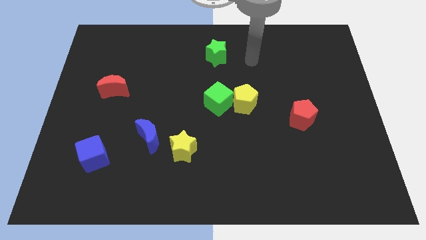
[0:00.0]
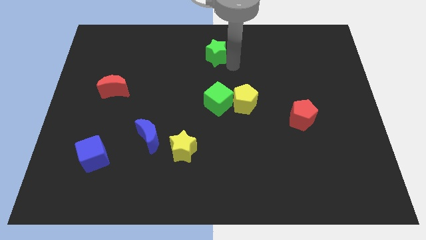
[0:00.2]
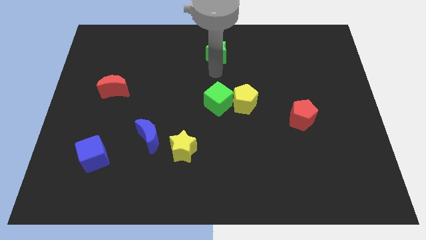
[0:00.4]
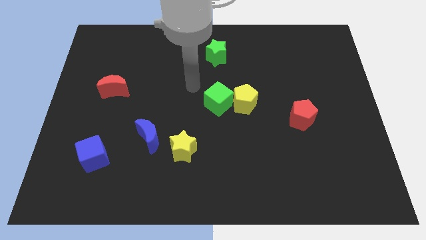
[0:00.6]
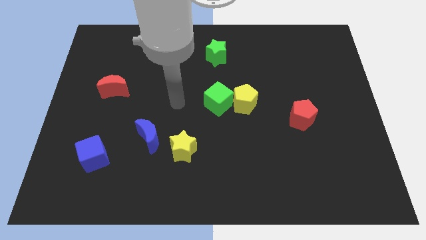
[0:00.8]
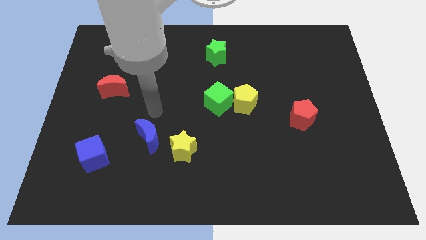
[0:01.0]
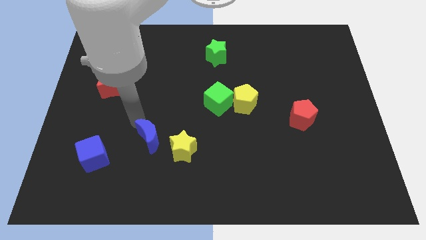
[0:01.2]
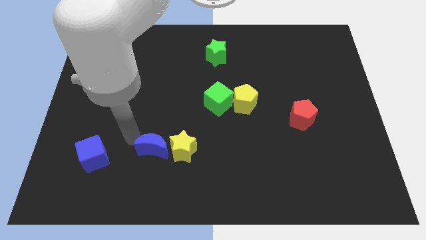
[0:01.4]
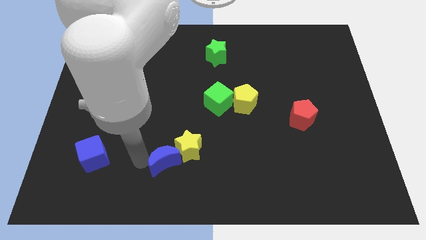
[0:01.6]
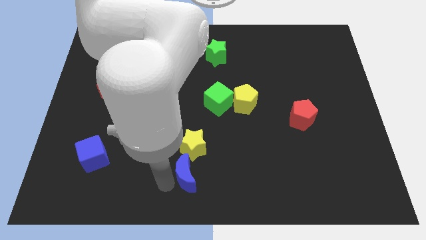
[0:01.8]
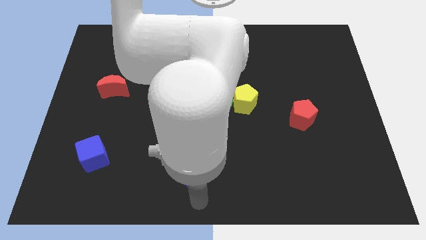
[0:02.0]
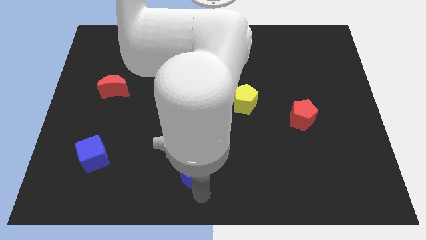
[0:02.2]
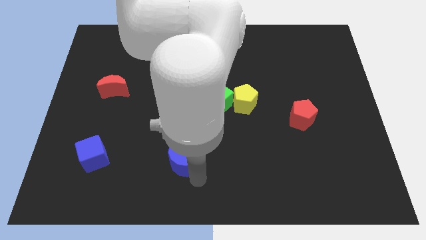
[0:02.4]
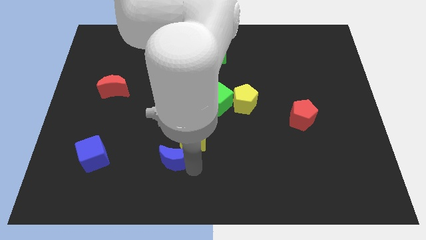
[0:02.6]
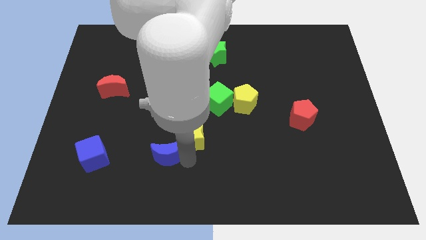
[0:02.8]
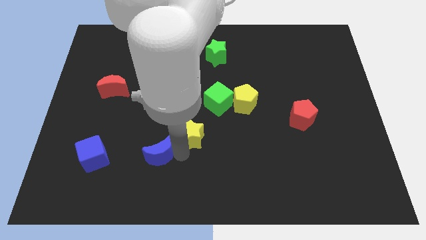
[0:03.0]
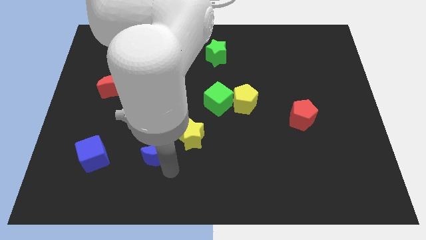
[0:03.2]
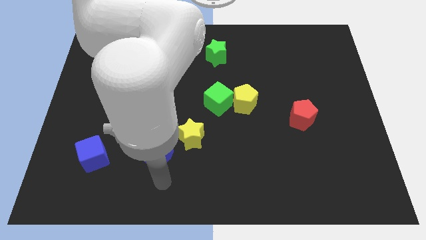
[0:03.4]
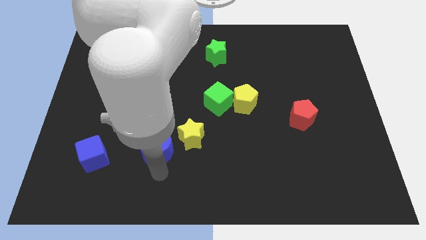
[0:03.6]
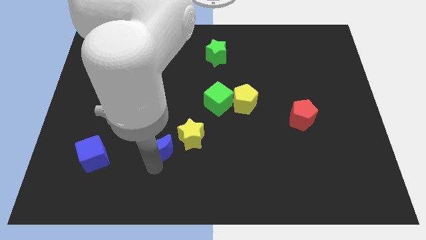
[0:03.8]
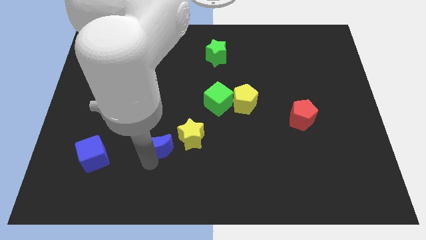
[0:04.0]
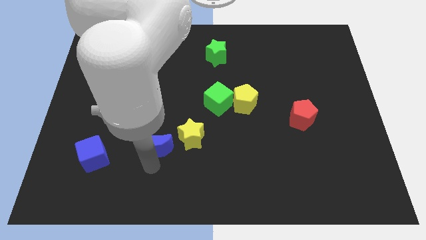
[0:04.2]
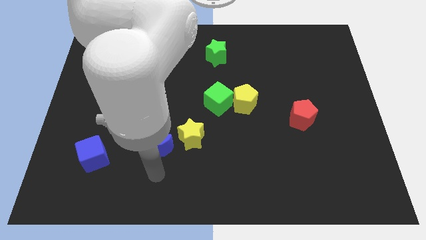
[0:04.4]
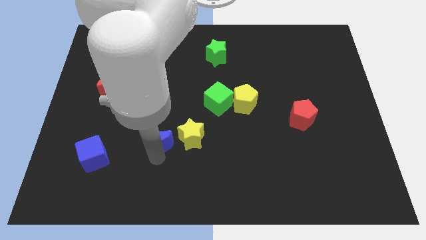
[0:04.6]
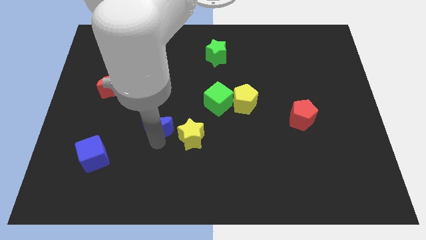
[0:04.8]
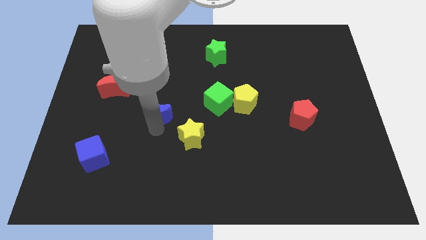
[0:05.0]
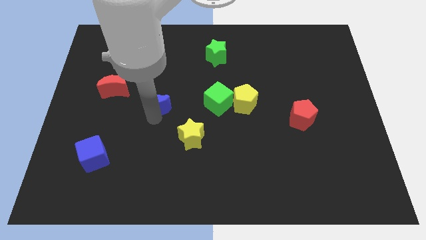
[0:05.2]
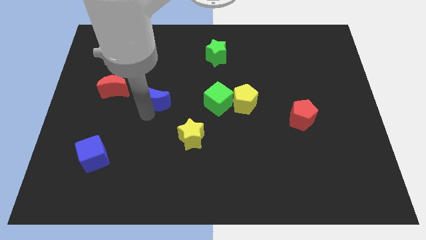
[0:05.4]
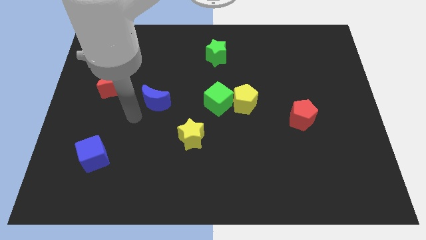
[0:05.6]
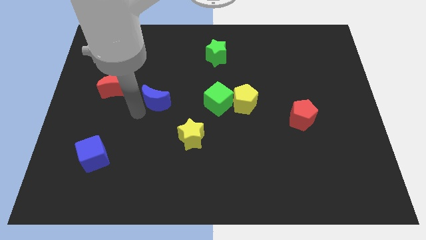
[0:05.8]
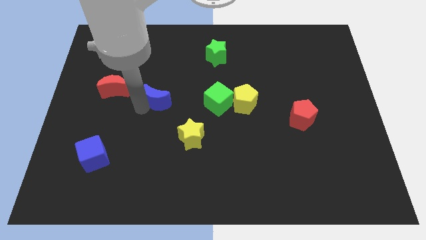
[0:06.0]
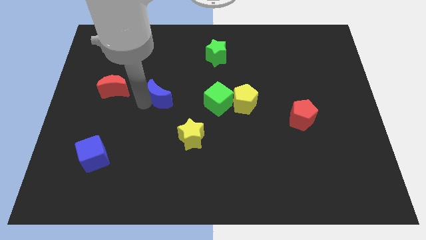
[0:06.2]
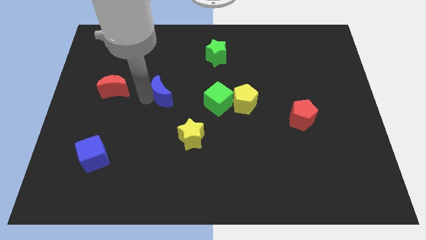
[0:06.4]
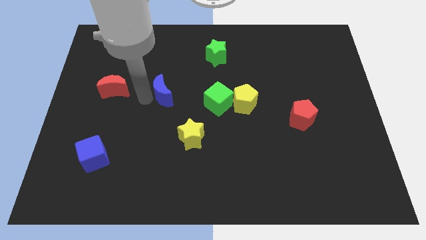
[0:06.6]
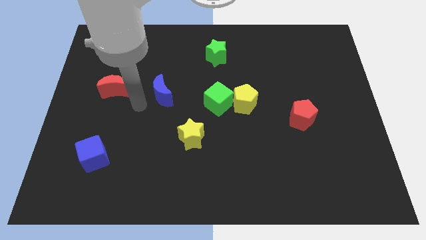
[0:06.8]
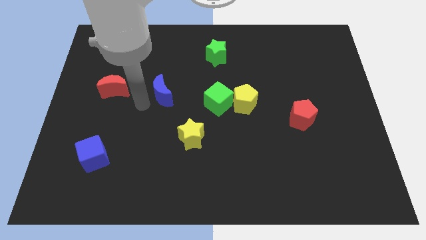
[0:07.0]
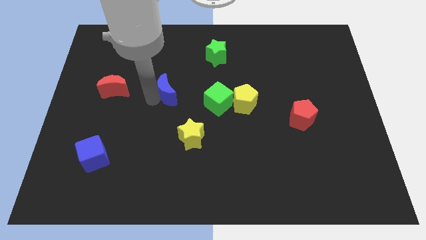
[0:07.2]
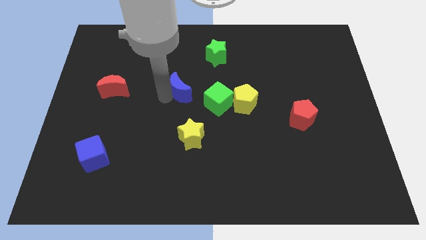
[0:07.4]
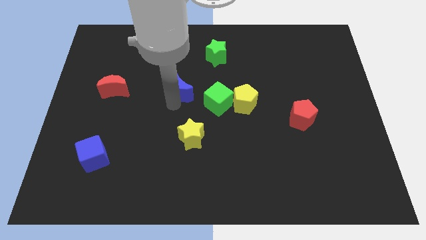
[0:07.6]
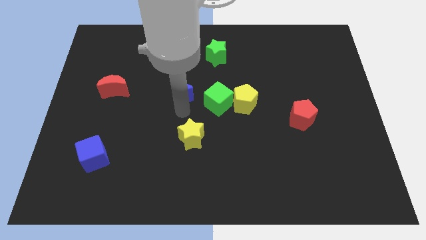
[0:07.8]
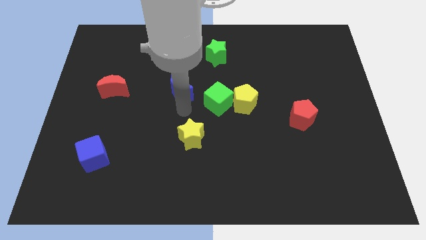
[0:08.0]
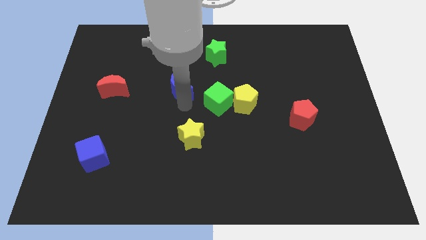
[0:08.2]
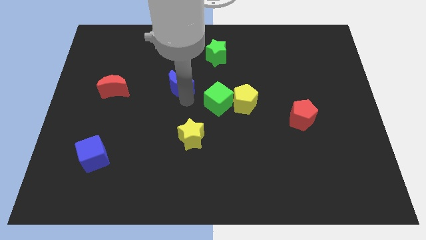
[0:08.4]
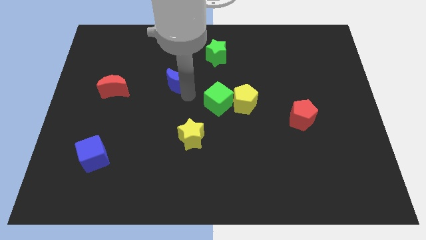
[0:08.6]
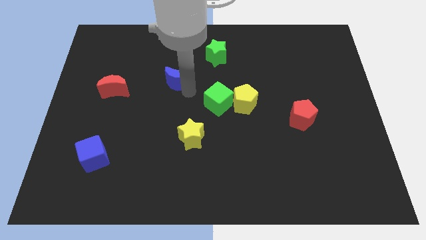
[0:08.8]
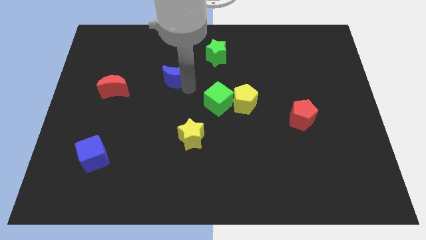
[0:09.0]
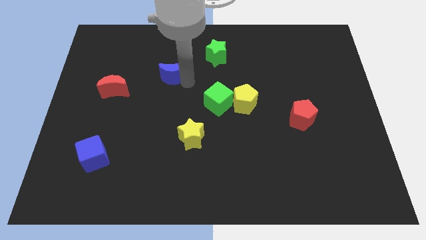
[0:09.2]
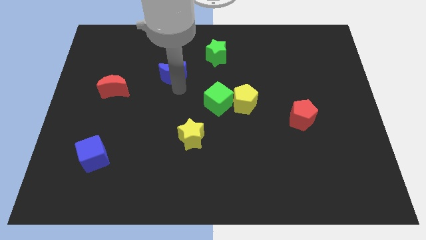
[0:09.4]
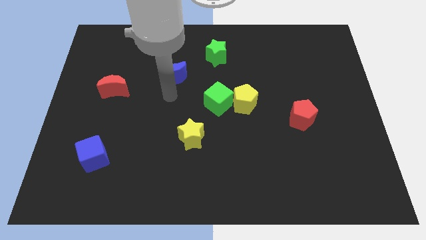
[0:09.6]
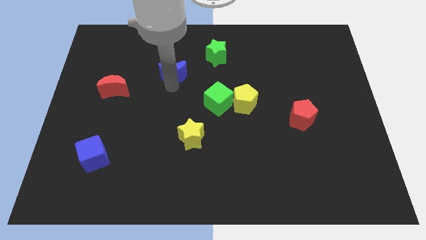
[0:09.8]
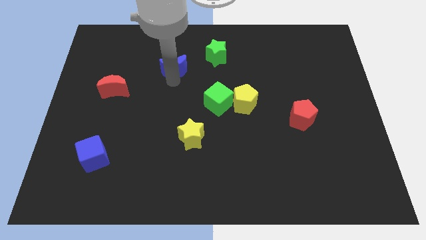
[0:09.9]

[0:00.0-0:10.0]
slide the blue moon left of the green star

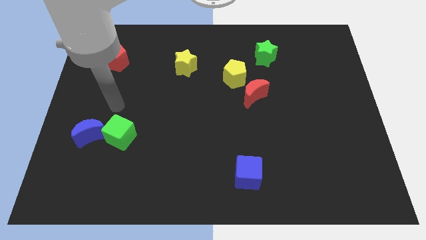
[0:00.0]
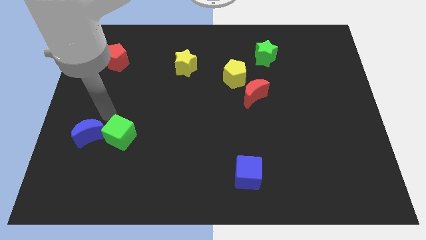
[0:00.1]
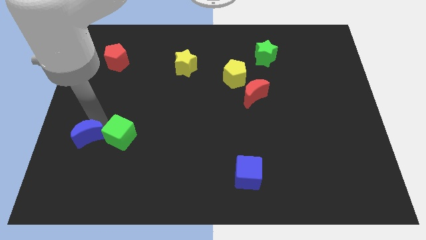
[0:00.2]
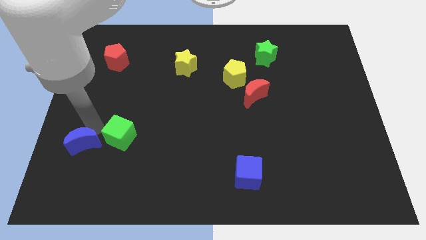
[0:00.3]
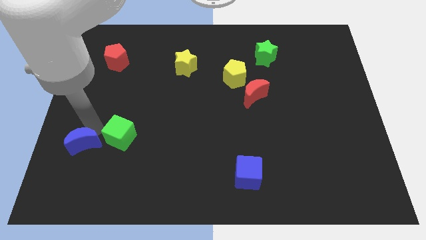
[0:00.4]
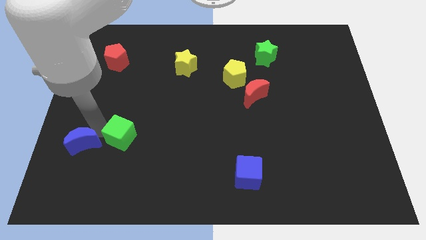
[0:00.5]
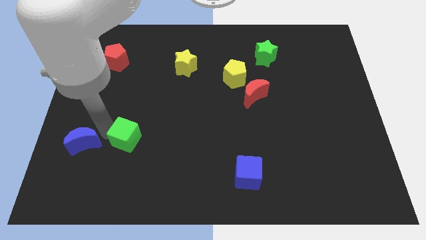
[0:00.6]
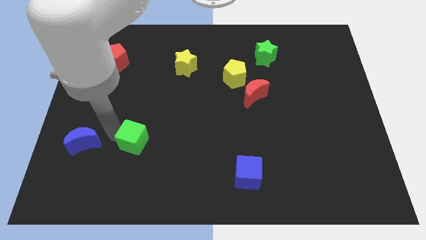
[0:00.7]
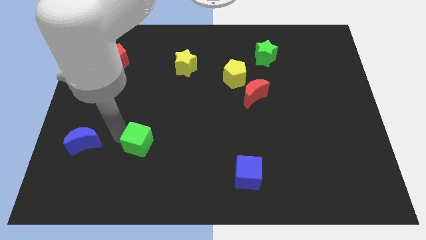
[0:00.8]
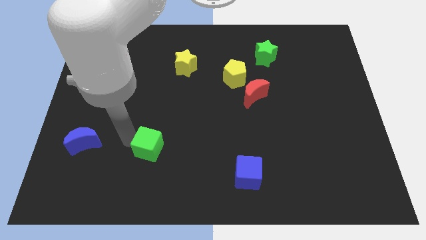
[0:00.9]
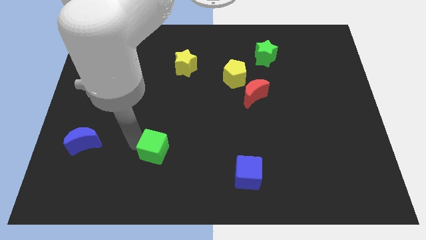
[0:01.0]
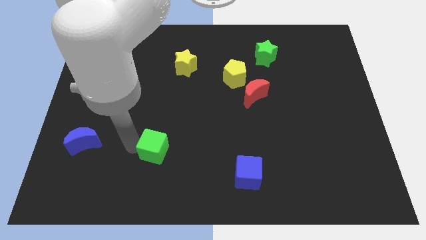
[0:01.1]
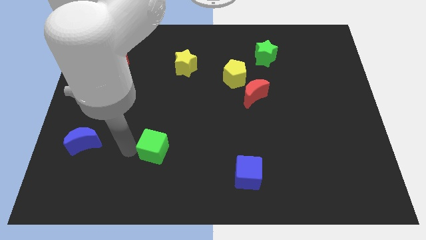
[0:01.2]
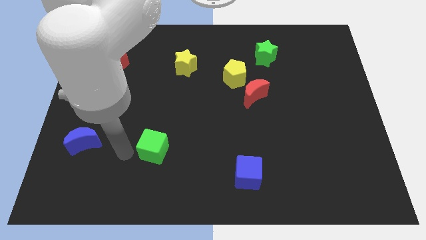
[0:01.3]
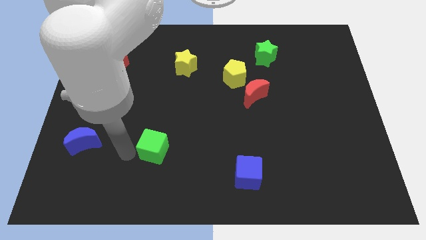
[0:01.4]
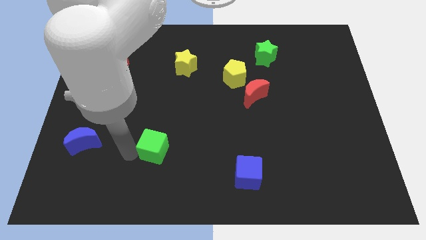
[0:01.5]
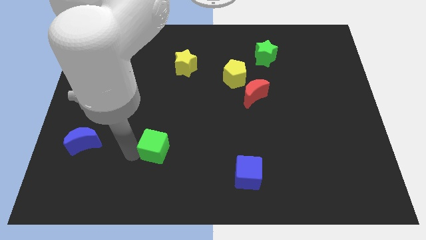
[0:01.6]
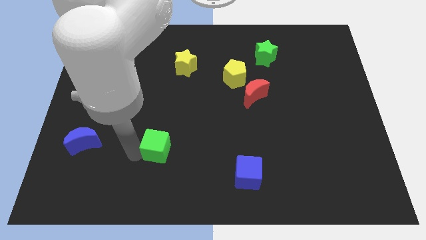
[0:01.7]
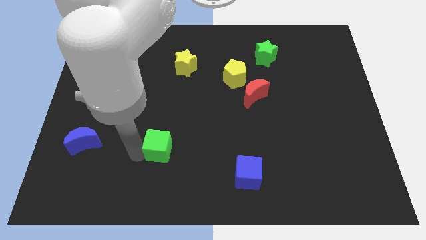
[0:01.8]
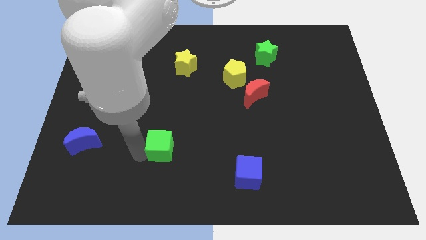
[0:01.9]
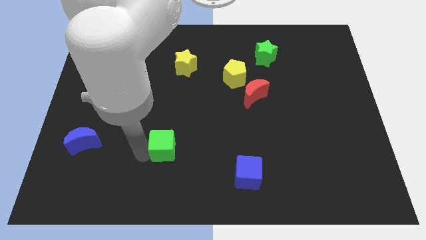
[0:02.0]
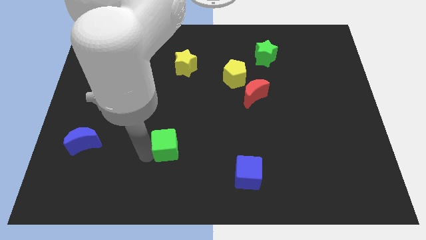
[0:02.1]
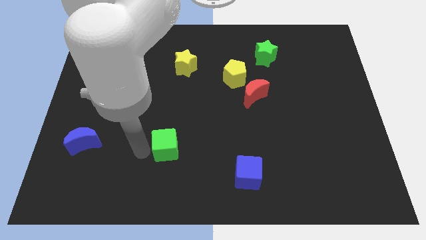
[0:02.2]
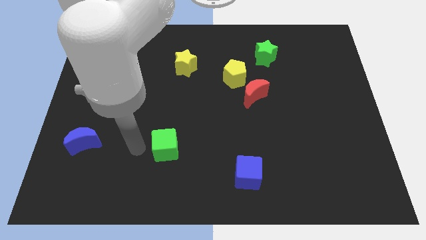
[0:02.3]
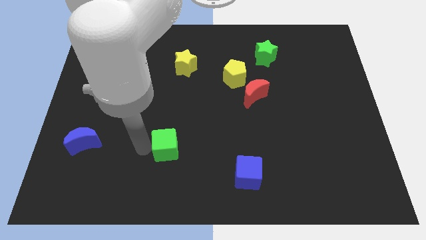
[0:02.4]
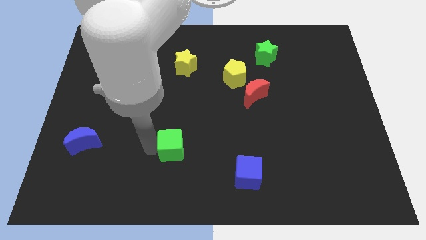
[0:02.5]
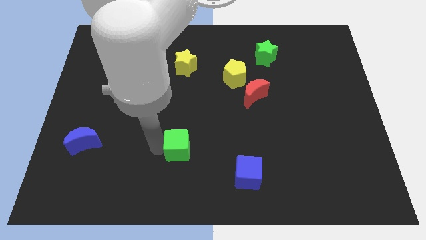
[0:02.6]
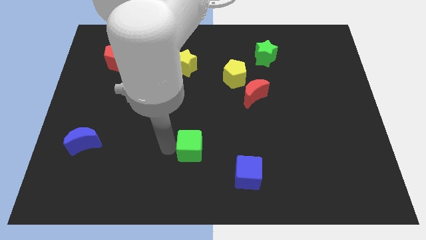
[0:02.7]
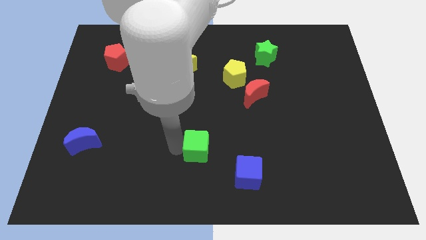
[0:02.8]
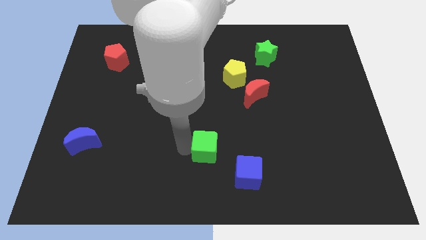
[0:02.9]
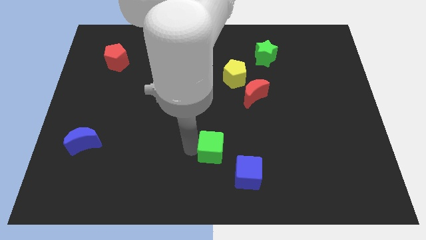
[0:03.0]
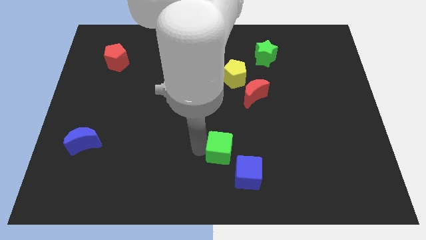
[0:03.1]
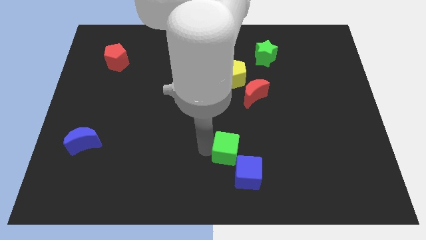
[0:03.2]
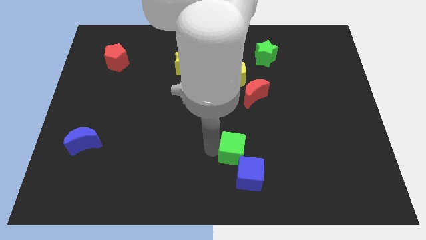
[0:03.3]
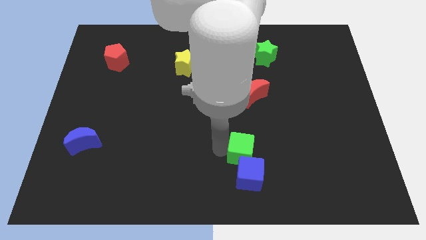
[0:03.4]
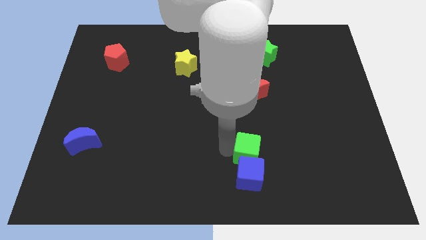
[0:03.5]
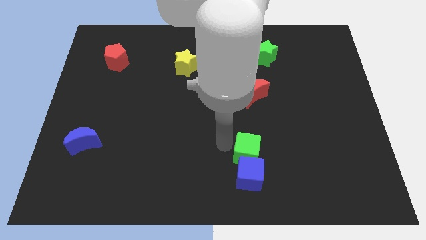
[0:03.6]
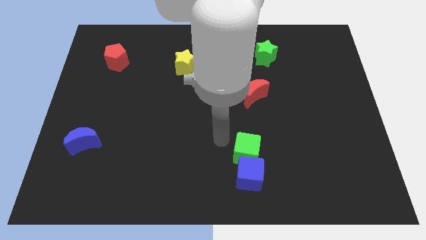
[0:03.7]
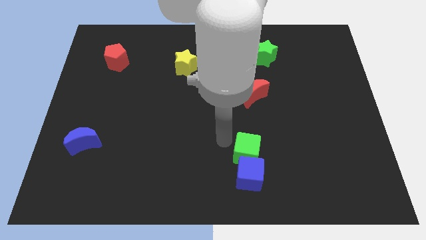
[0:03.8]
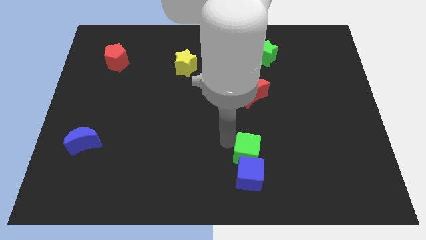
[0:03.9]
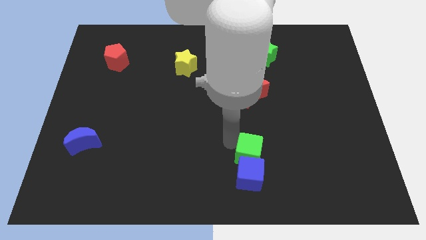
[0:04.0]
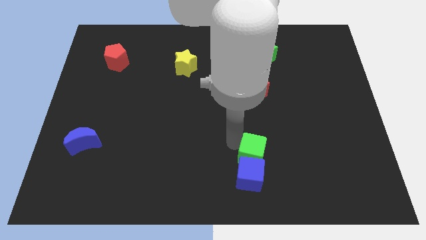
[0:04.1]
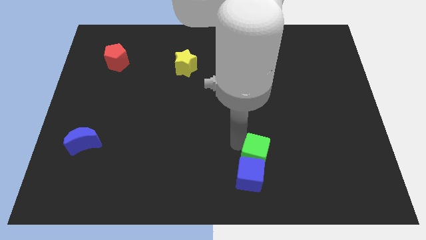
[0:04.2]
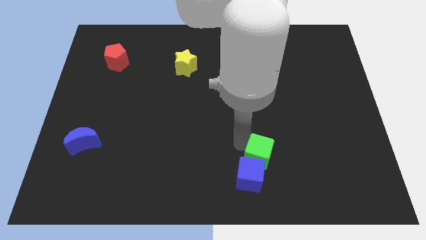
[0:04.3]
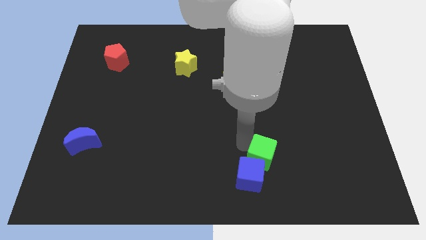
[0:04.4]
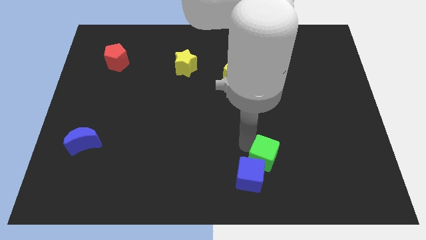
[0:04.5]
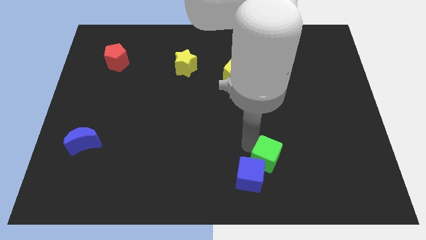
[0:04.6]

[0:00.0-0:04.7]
put the green cube to the right side of the blue cube
